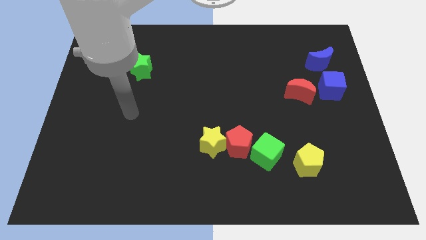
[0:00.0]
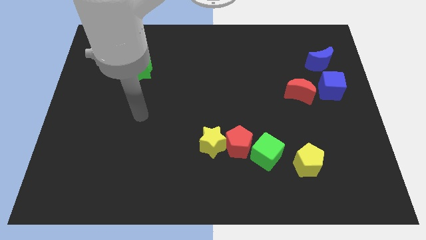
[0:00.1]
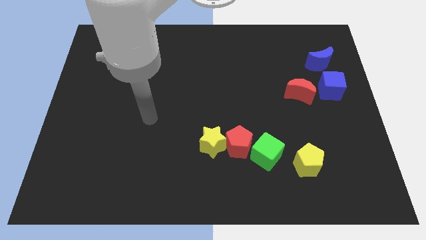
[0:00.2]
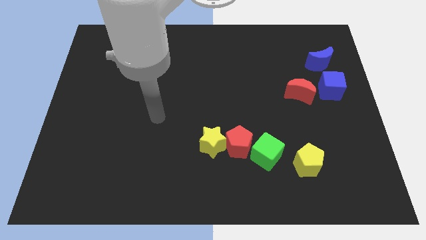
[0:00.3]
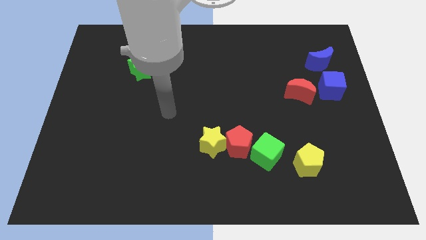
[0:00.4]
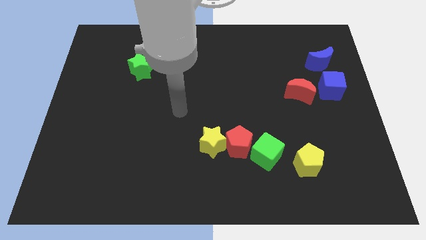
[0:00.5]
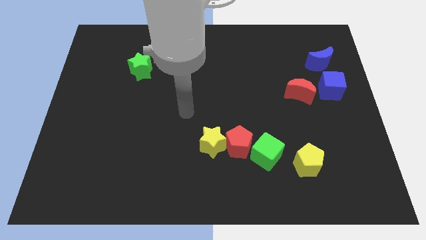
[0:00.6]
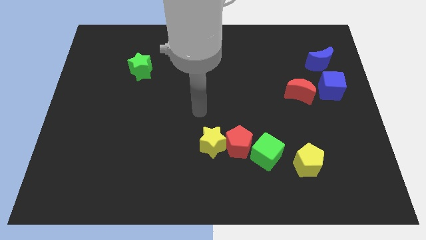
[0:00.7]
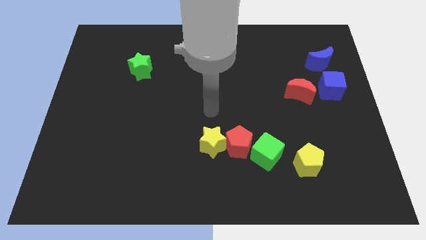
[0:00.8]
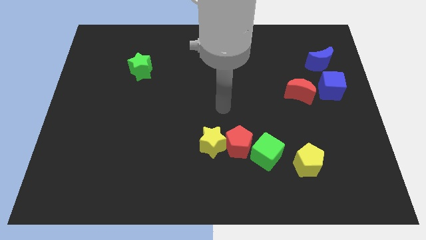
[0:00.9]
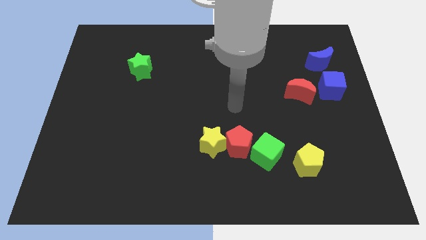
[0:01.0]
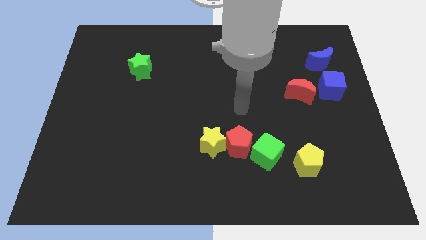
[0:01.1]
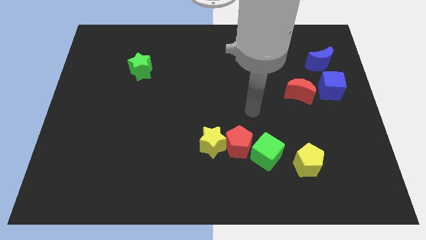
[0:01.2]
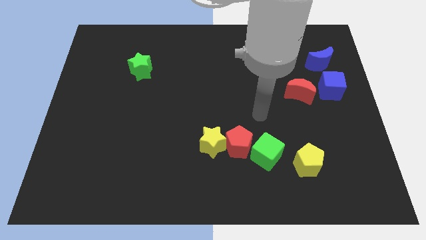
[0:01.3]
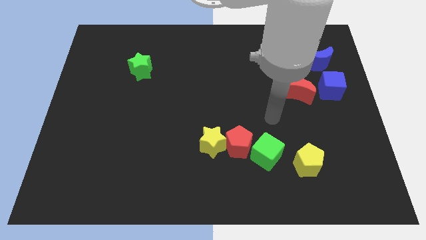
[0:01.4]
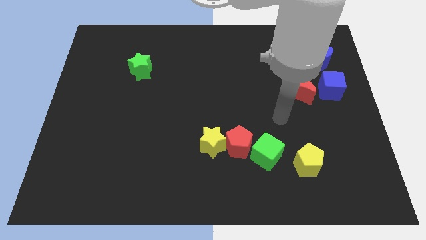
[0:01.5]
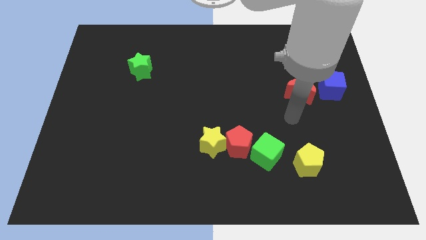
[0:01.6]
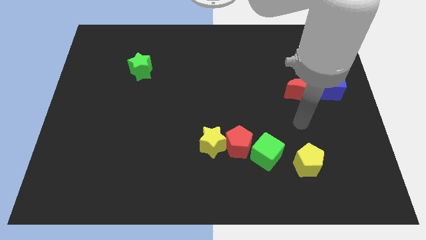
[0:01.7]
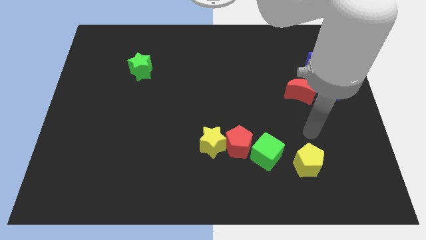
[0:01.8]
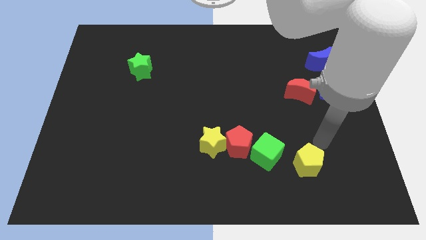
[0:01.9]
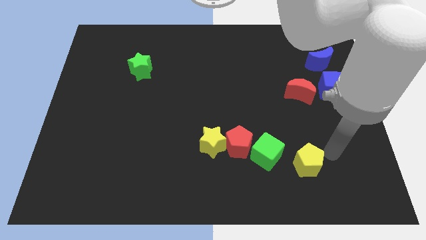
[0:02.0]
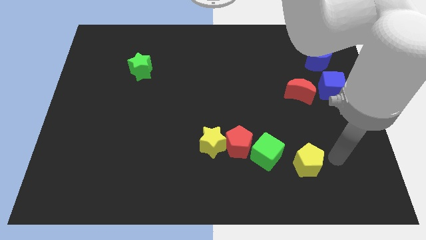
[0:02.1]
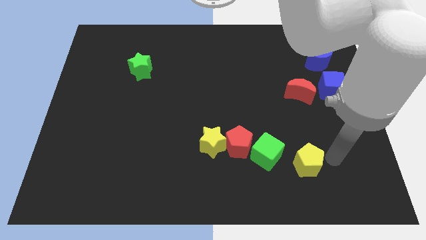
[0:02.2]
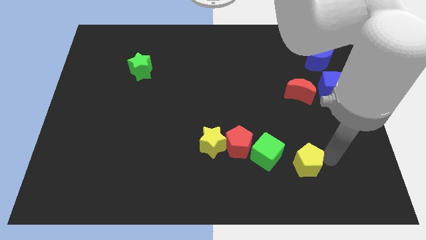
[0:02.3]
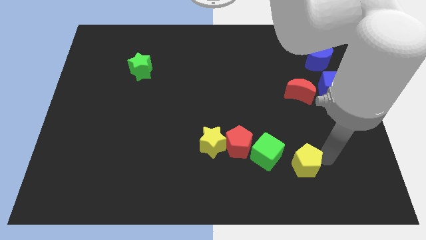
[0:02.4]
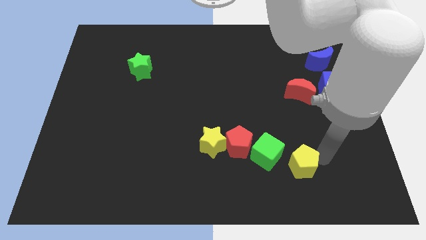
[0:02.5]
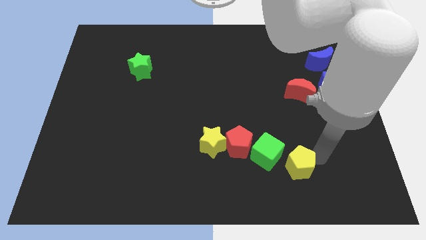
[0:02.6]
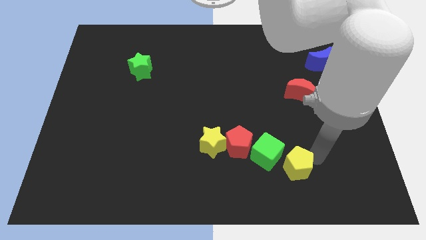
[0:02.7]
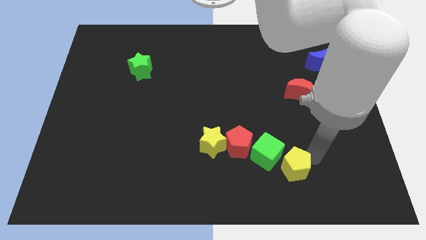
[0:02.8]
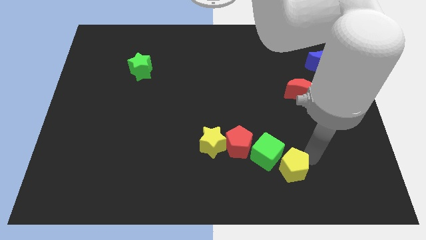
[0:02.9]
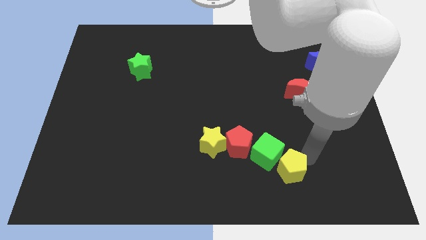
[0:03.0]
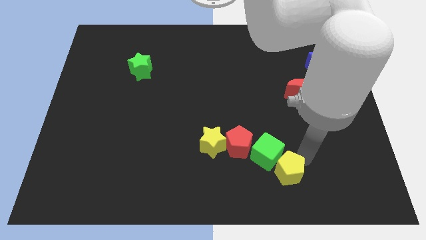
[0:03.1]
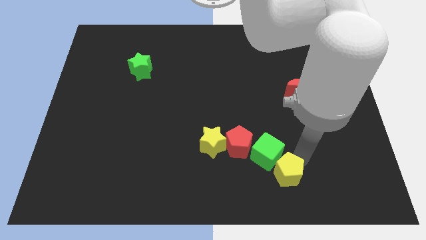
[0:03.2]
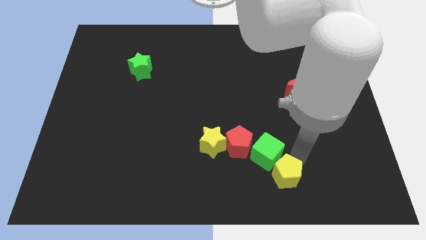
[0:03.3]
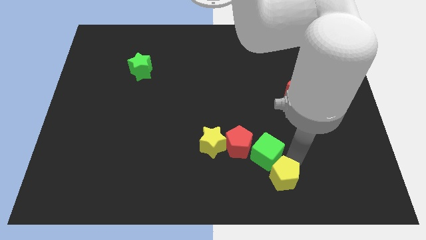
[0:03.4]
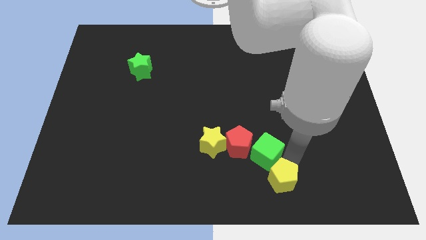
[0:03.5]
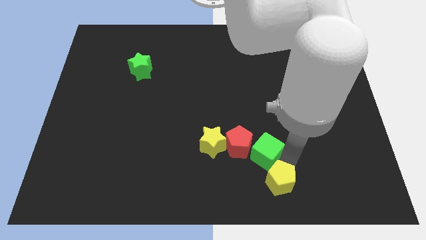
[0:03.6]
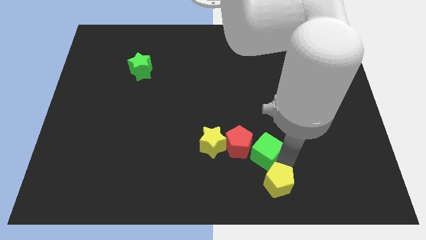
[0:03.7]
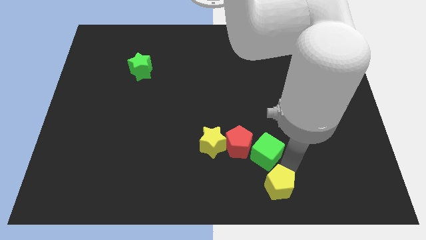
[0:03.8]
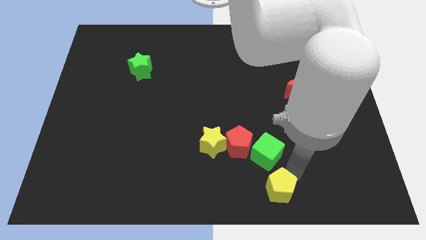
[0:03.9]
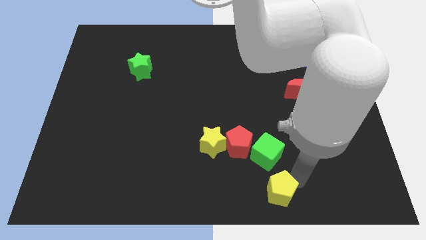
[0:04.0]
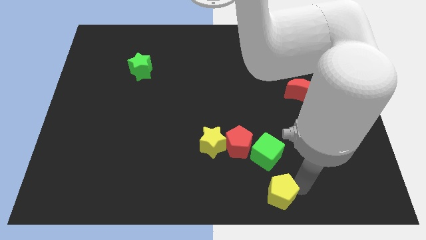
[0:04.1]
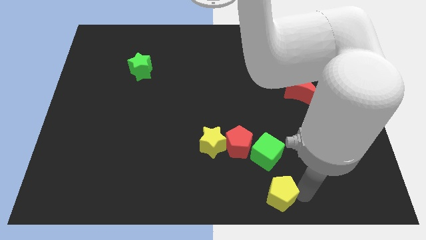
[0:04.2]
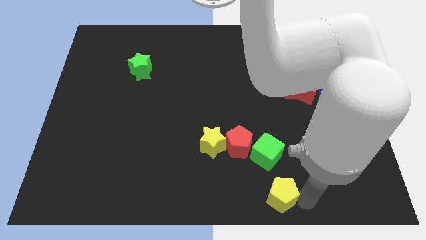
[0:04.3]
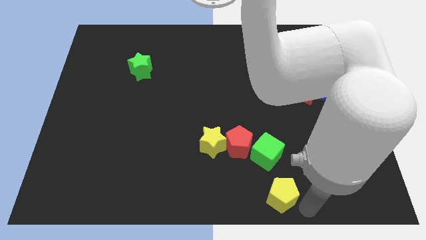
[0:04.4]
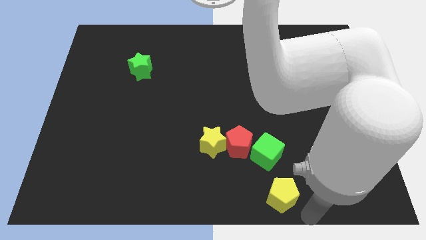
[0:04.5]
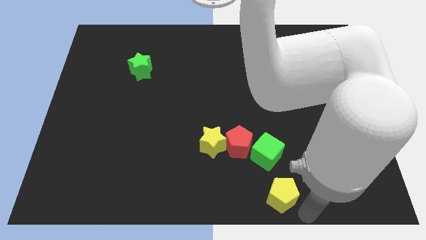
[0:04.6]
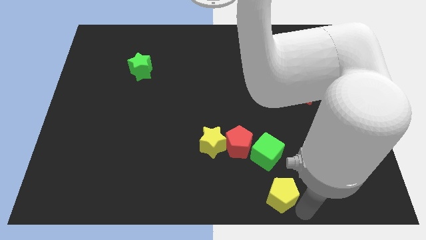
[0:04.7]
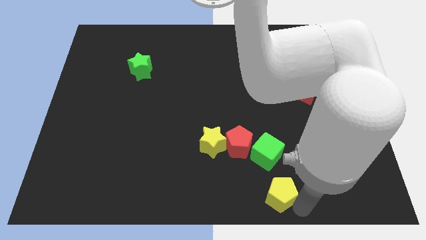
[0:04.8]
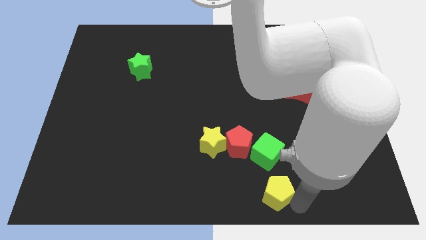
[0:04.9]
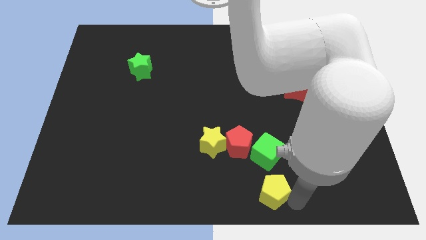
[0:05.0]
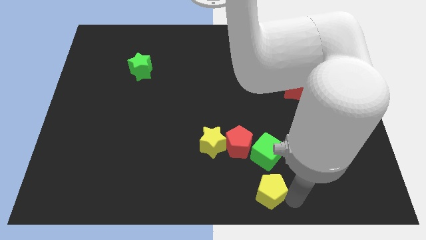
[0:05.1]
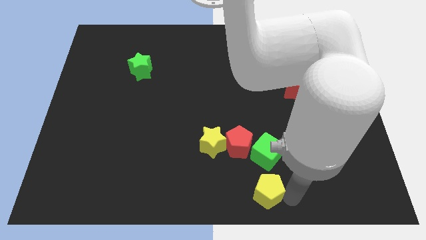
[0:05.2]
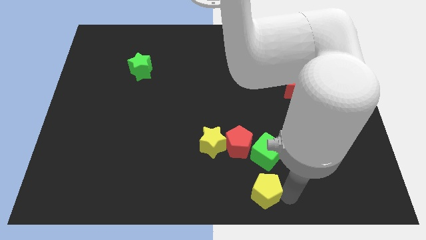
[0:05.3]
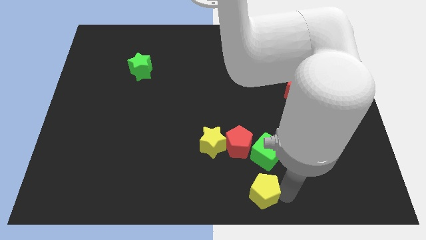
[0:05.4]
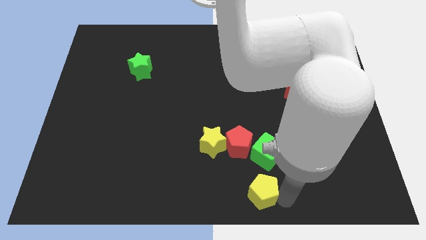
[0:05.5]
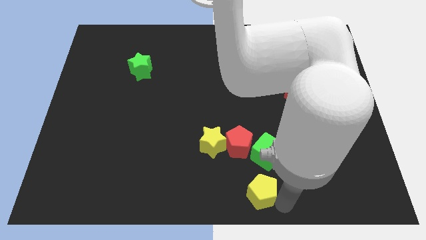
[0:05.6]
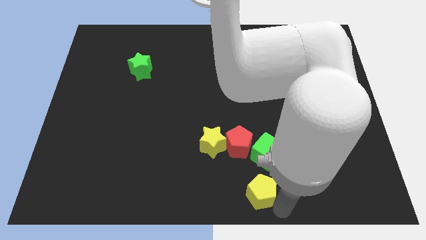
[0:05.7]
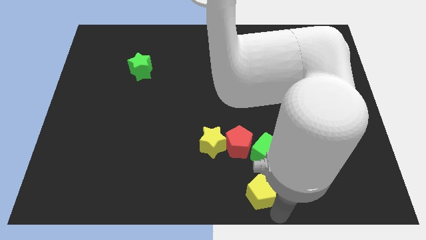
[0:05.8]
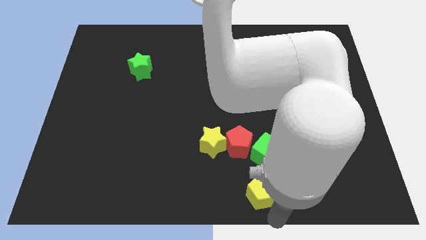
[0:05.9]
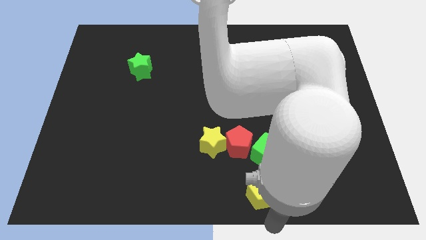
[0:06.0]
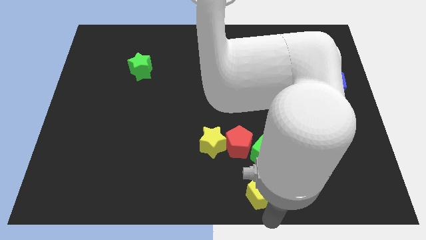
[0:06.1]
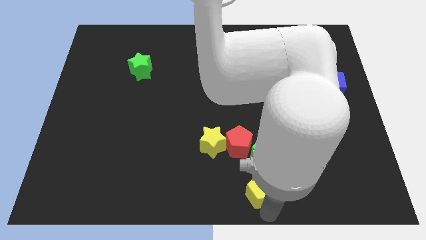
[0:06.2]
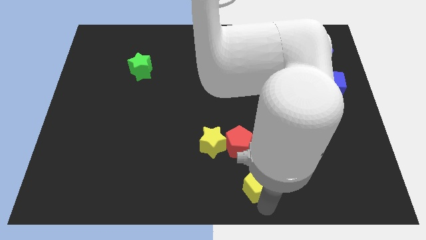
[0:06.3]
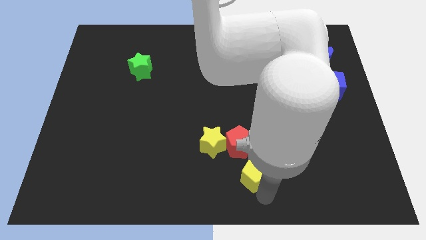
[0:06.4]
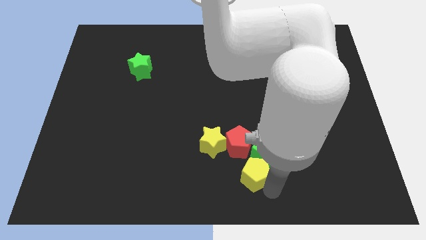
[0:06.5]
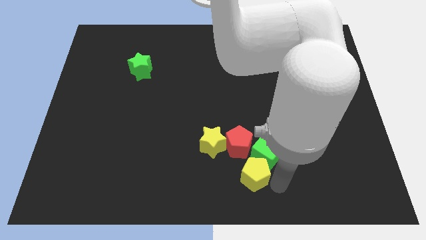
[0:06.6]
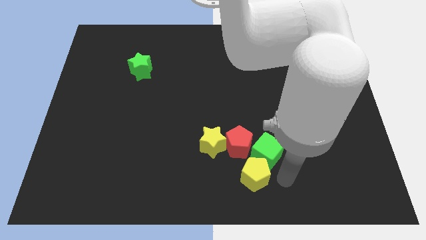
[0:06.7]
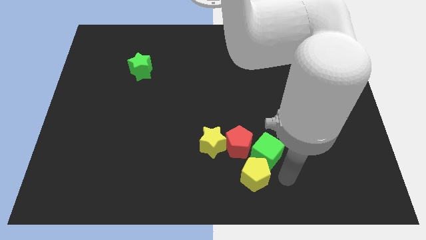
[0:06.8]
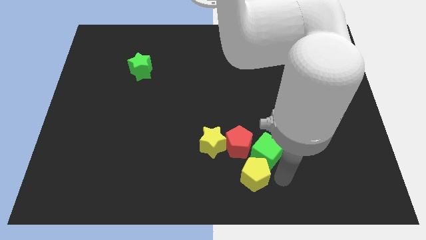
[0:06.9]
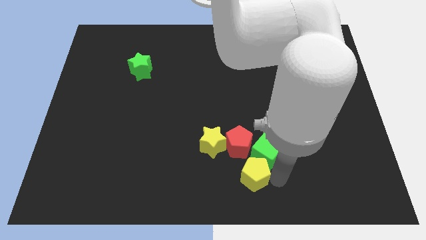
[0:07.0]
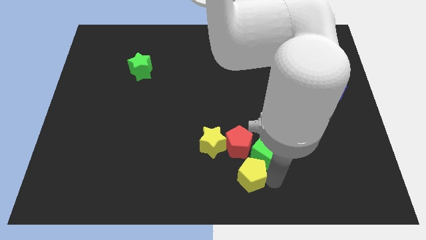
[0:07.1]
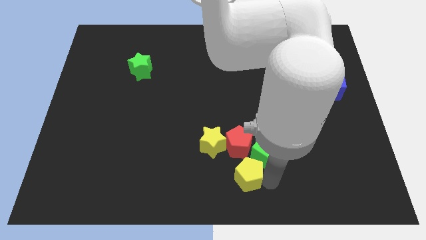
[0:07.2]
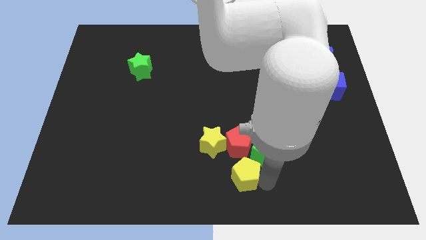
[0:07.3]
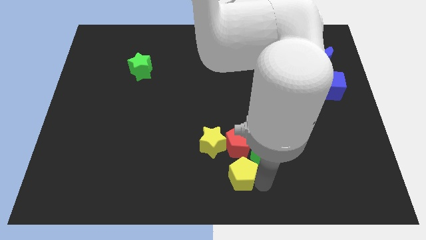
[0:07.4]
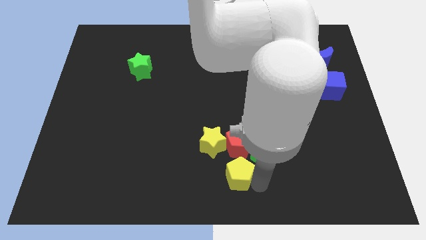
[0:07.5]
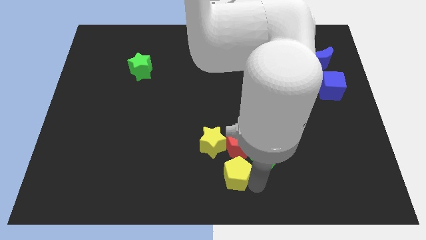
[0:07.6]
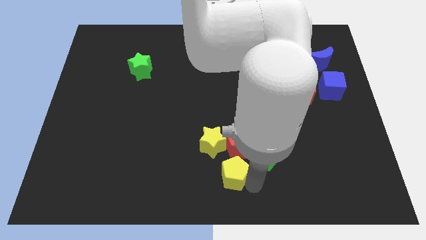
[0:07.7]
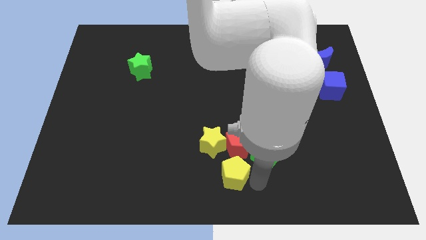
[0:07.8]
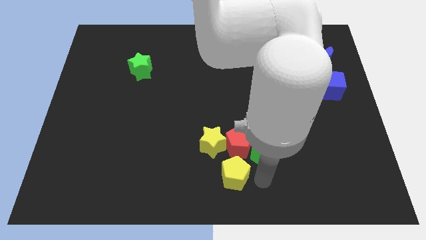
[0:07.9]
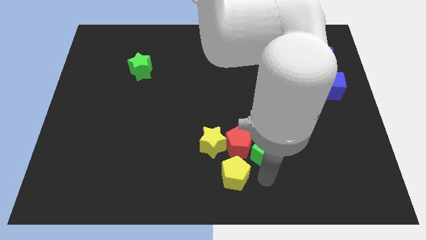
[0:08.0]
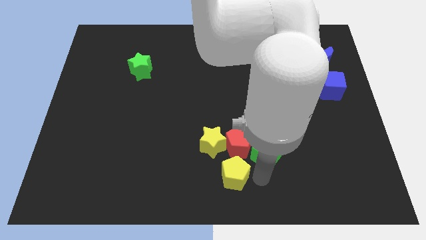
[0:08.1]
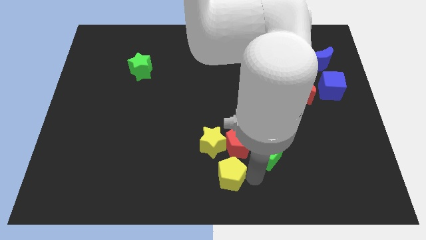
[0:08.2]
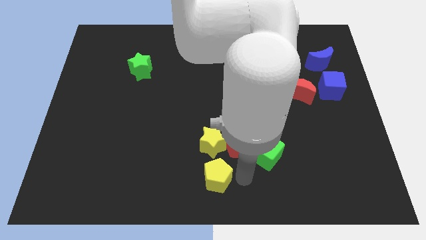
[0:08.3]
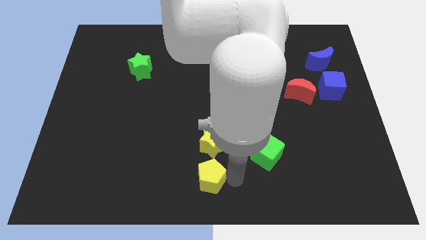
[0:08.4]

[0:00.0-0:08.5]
slide the yellow pentagon left
